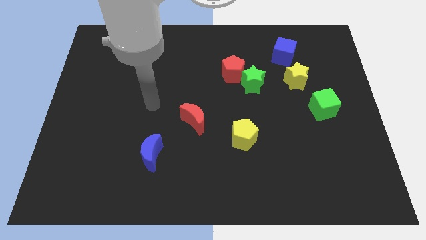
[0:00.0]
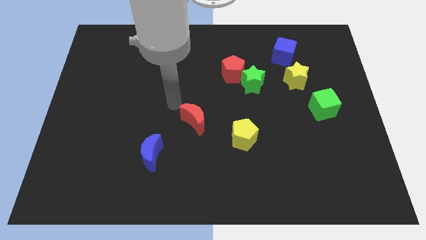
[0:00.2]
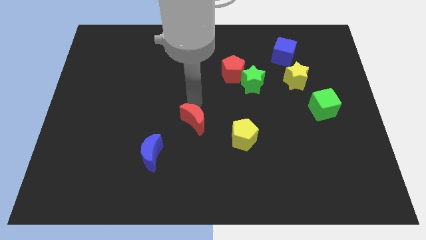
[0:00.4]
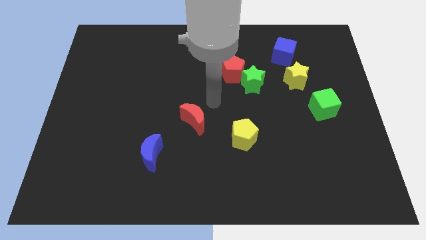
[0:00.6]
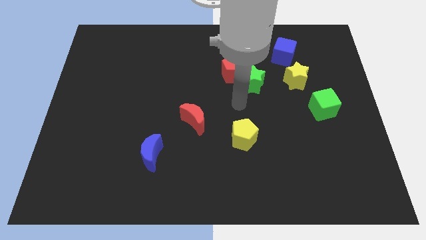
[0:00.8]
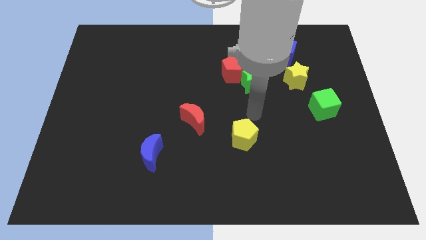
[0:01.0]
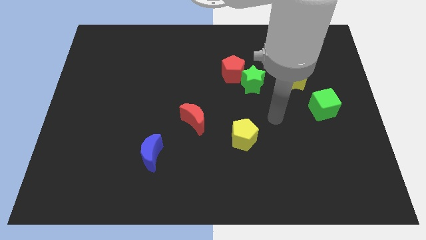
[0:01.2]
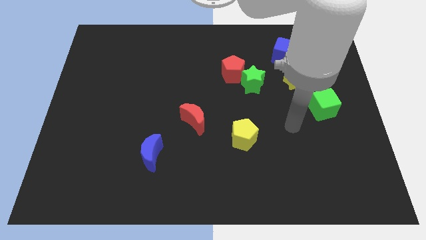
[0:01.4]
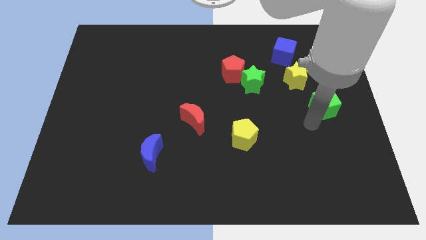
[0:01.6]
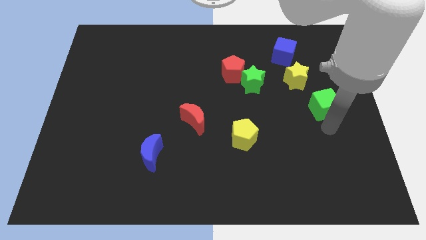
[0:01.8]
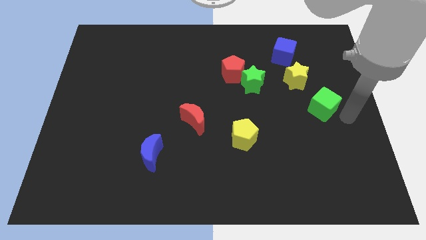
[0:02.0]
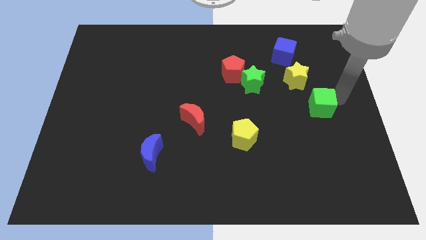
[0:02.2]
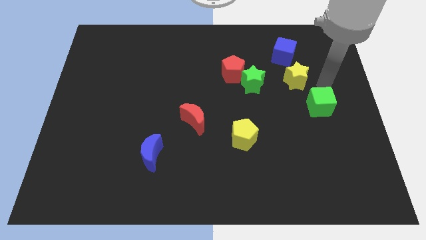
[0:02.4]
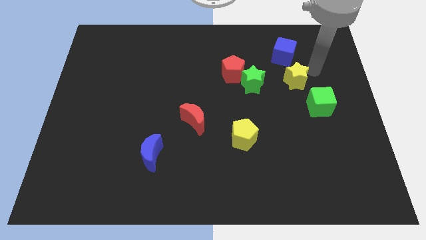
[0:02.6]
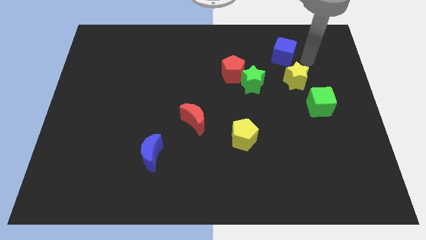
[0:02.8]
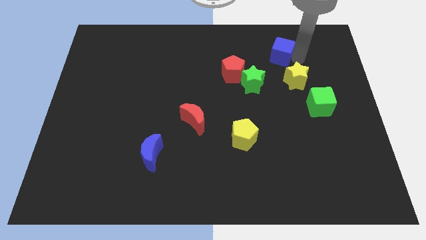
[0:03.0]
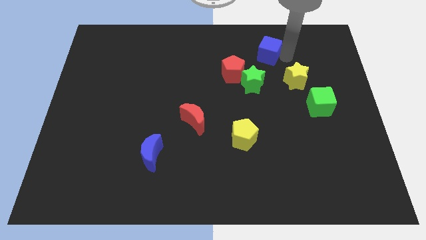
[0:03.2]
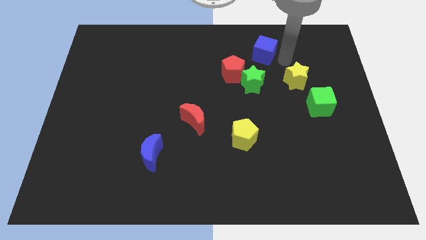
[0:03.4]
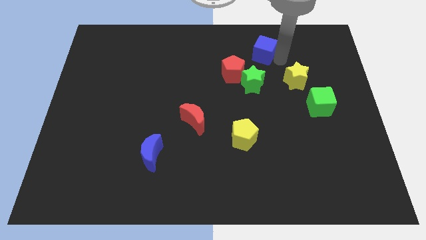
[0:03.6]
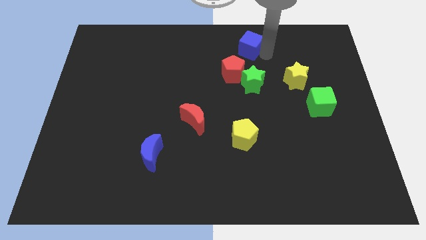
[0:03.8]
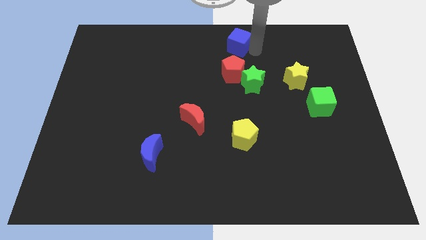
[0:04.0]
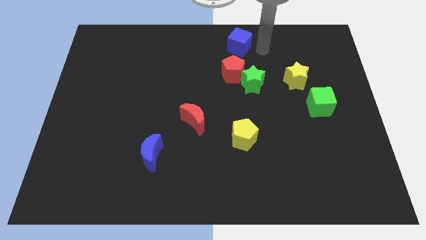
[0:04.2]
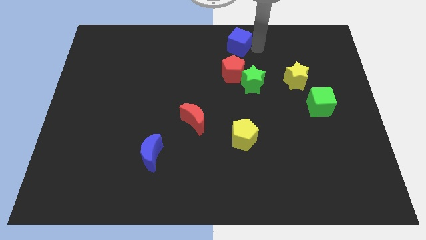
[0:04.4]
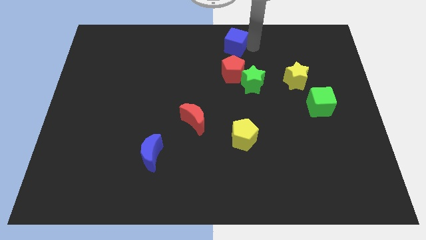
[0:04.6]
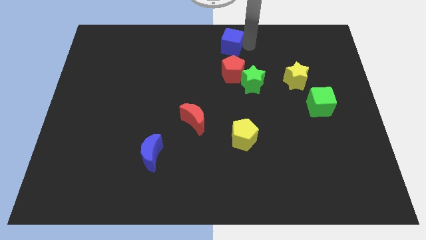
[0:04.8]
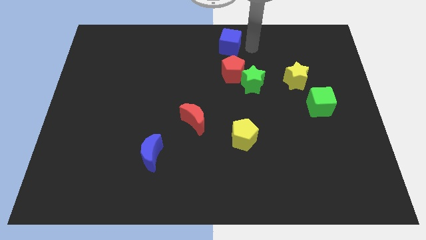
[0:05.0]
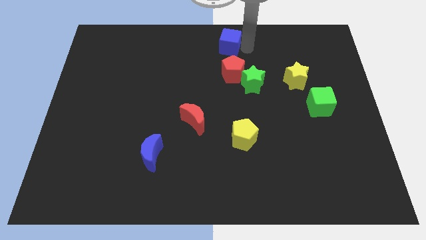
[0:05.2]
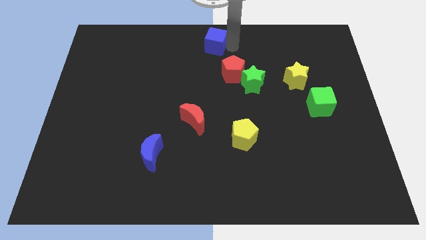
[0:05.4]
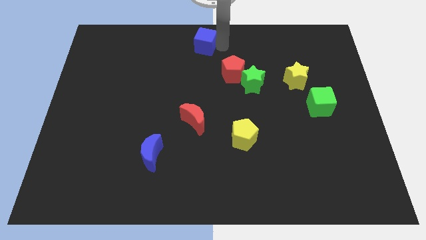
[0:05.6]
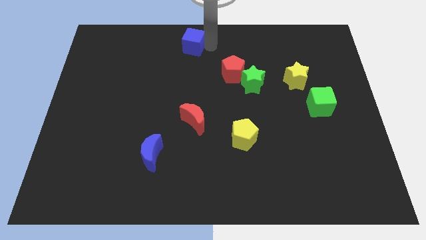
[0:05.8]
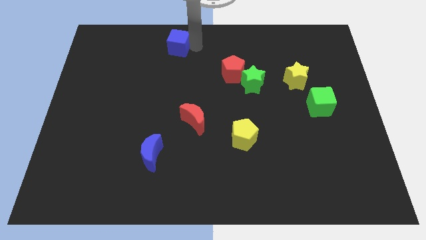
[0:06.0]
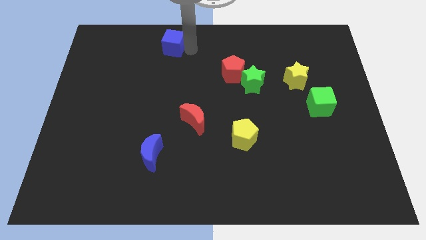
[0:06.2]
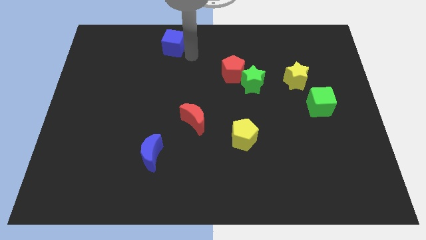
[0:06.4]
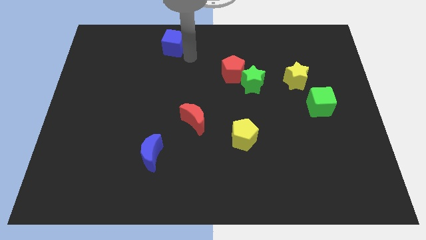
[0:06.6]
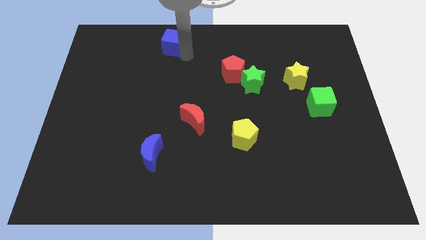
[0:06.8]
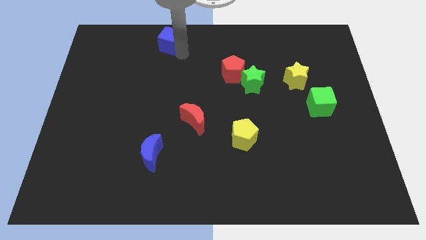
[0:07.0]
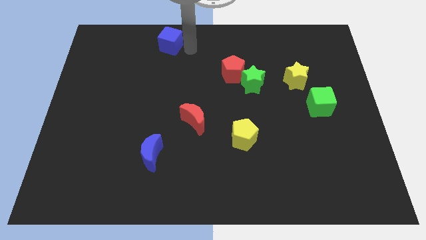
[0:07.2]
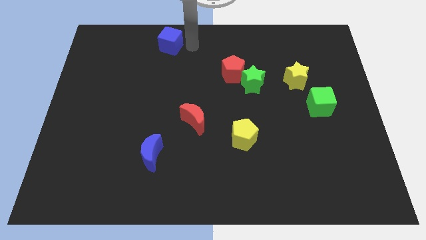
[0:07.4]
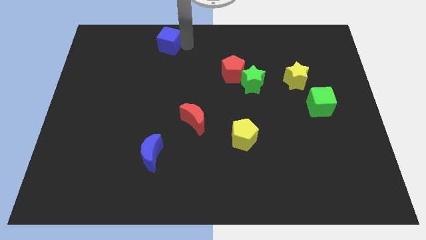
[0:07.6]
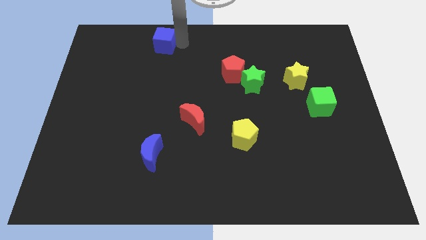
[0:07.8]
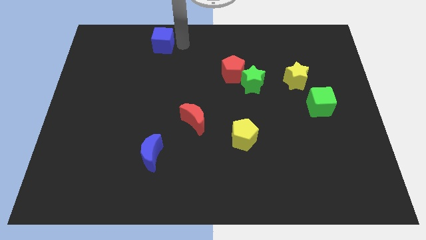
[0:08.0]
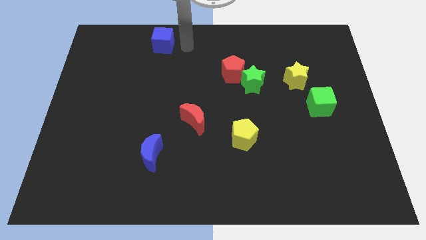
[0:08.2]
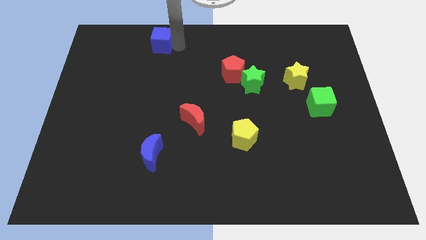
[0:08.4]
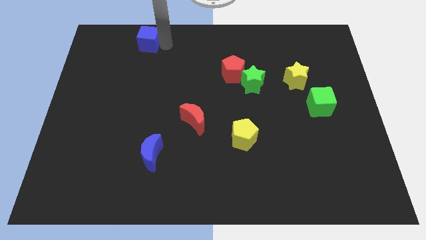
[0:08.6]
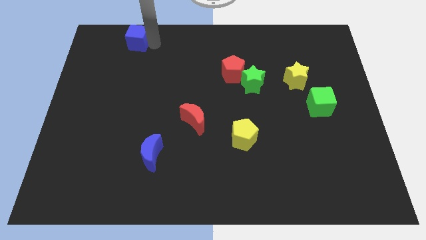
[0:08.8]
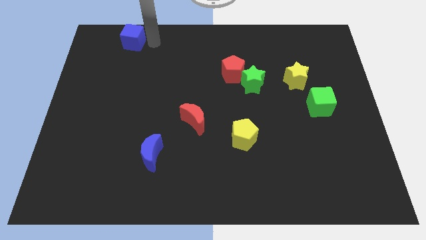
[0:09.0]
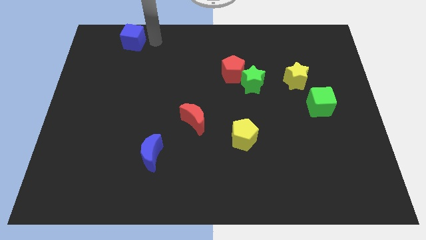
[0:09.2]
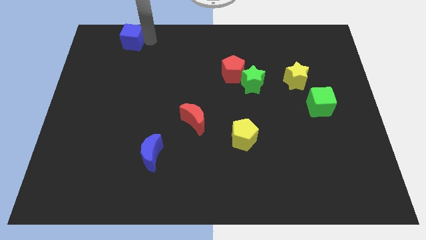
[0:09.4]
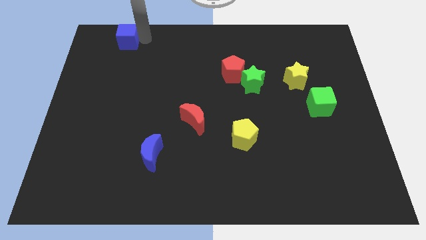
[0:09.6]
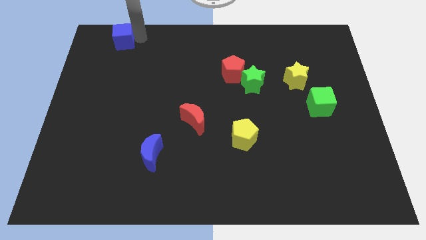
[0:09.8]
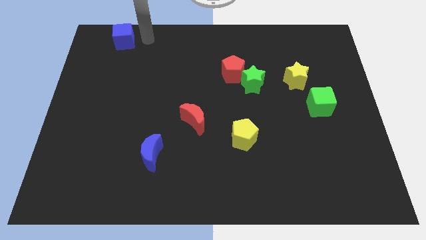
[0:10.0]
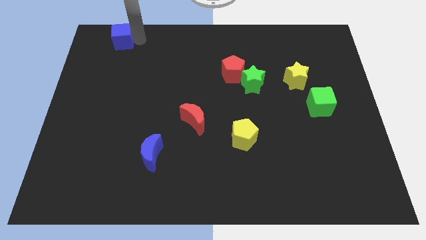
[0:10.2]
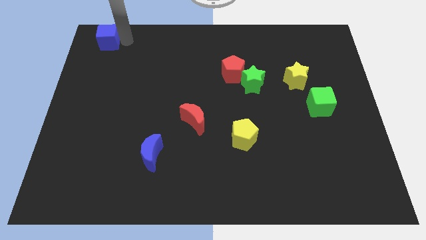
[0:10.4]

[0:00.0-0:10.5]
slide the blue cube to the upper left corner

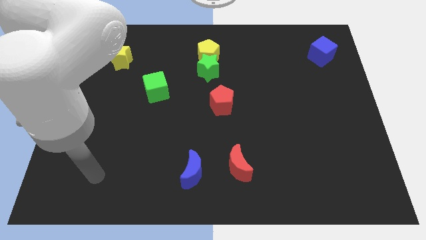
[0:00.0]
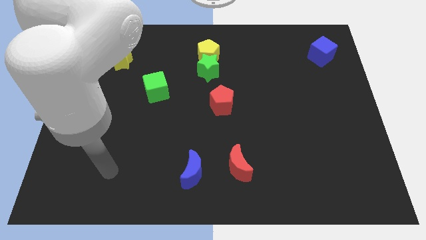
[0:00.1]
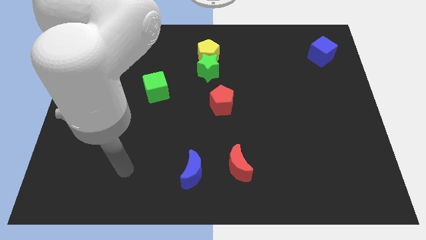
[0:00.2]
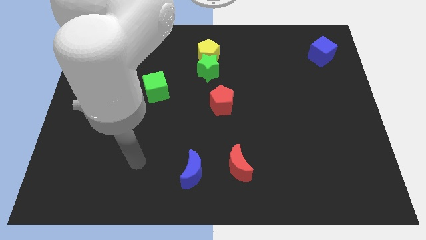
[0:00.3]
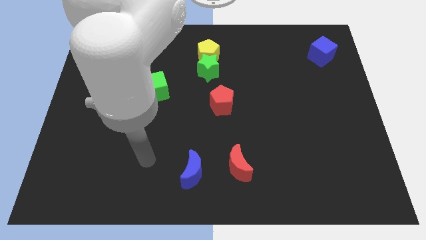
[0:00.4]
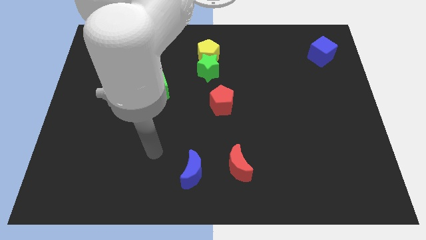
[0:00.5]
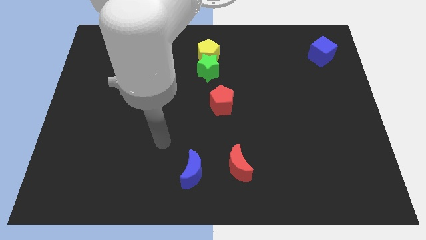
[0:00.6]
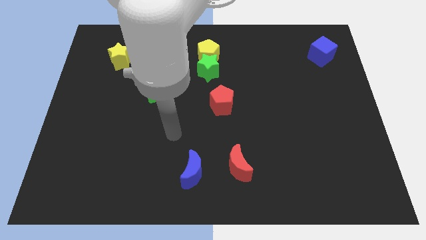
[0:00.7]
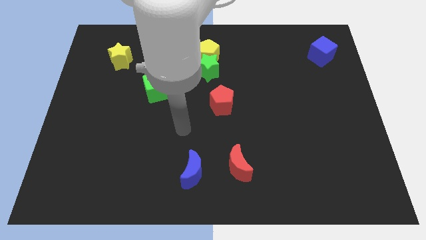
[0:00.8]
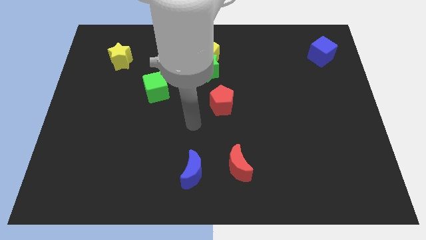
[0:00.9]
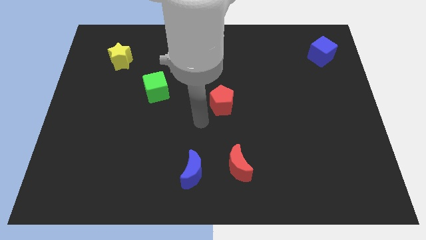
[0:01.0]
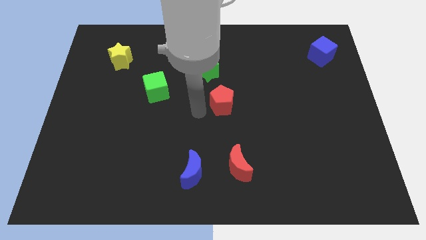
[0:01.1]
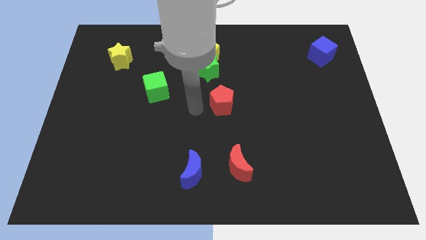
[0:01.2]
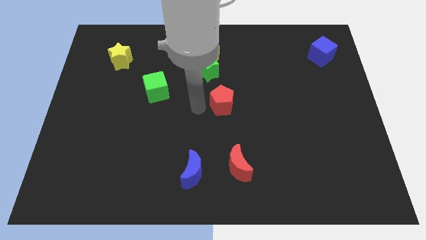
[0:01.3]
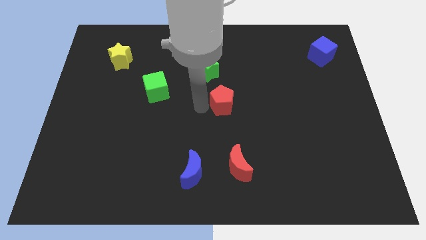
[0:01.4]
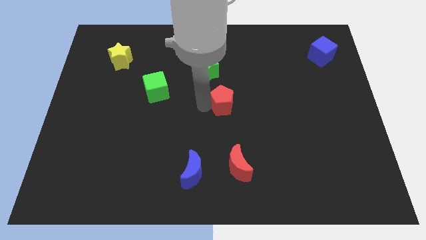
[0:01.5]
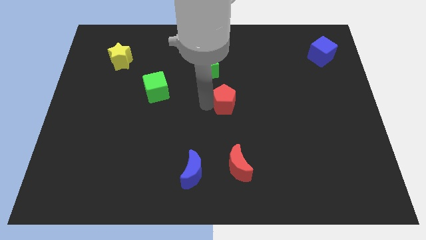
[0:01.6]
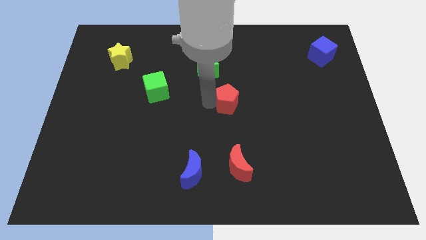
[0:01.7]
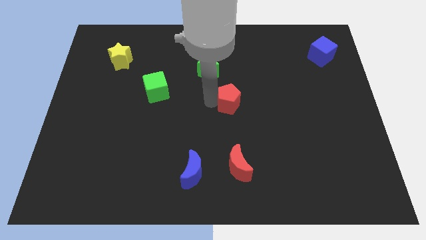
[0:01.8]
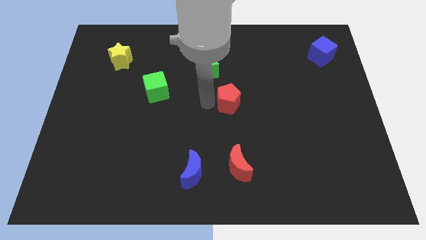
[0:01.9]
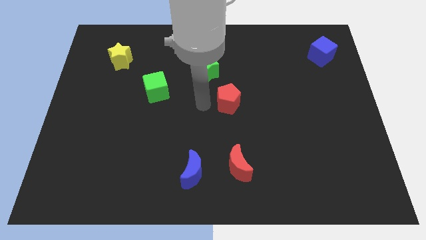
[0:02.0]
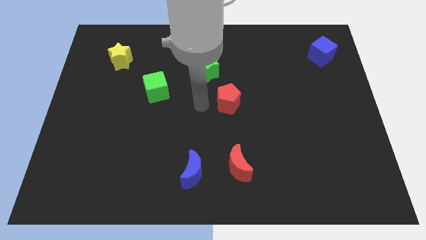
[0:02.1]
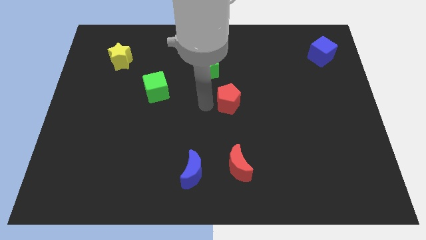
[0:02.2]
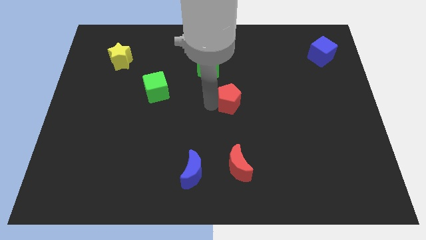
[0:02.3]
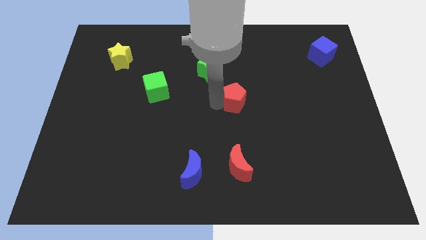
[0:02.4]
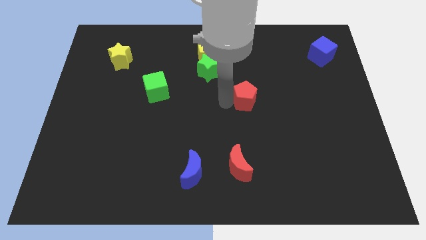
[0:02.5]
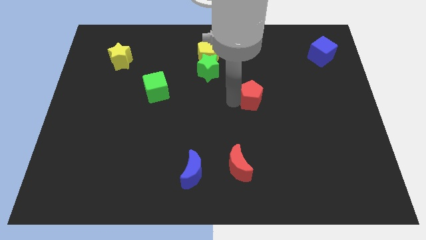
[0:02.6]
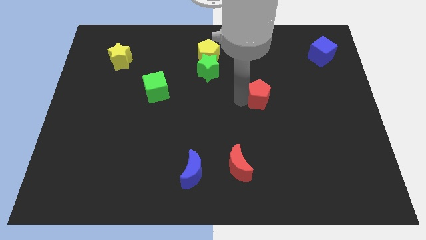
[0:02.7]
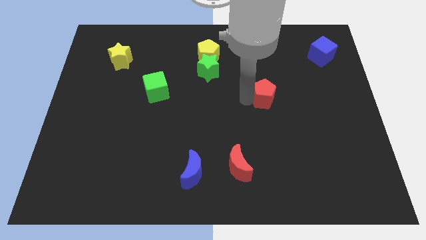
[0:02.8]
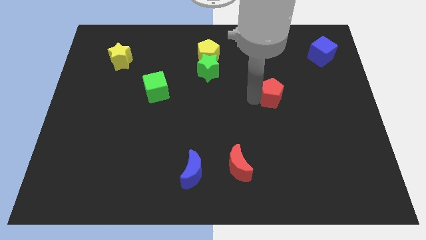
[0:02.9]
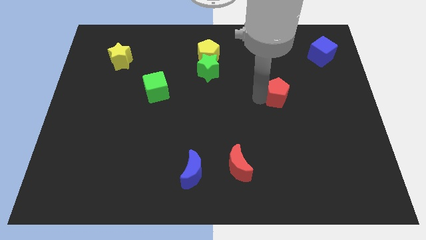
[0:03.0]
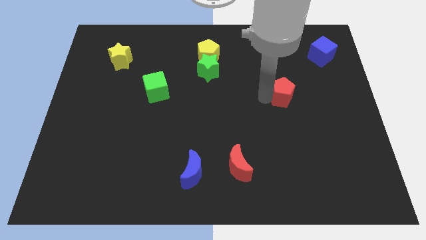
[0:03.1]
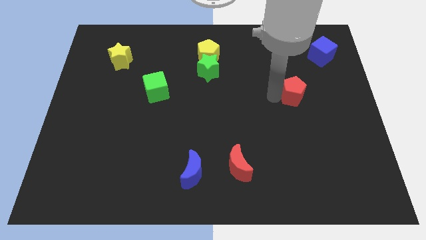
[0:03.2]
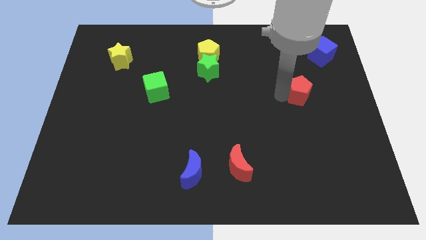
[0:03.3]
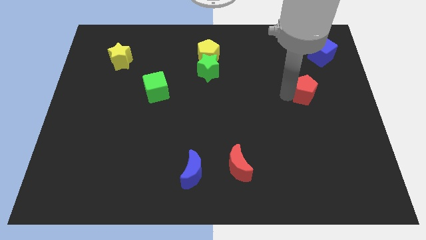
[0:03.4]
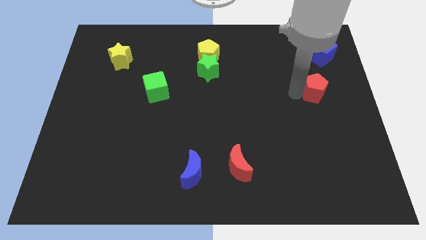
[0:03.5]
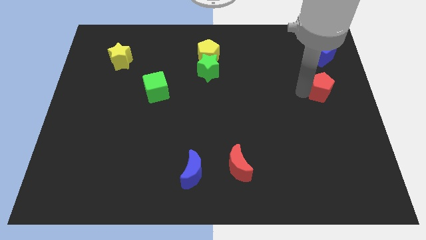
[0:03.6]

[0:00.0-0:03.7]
put the red pentagon to the right side
